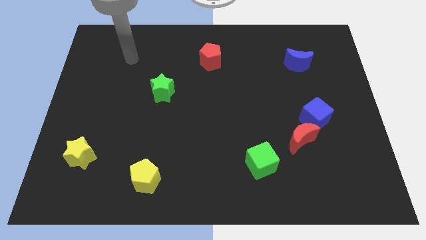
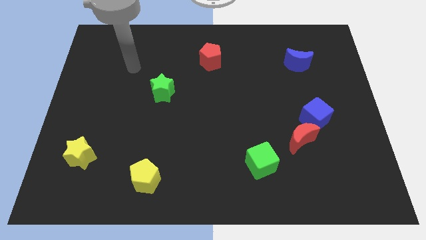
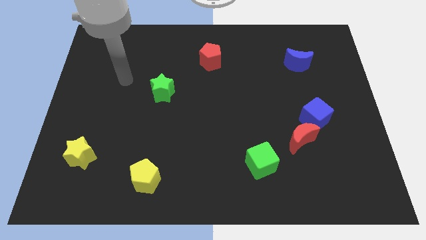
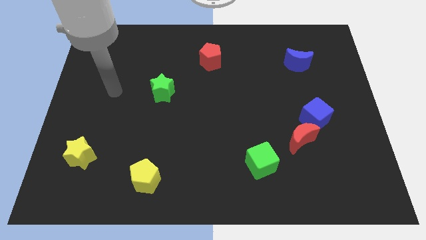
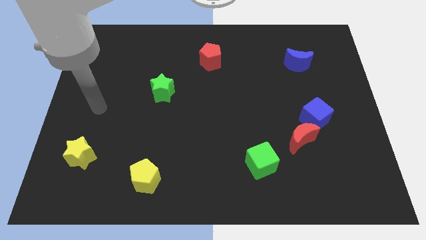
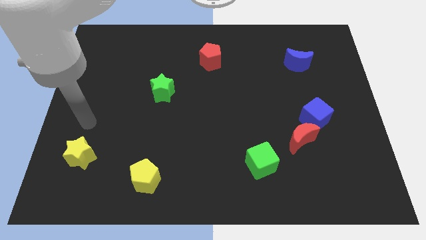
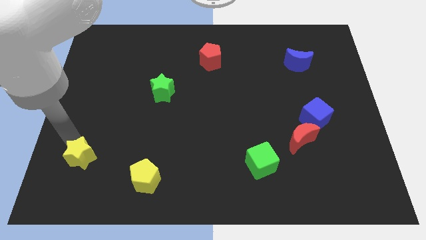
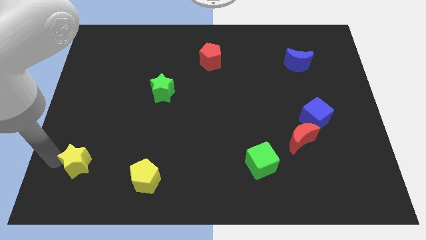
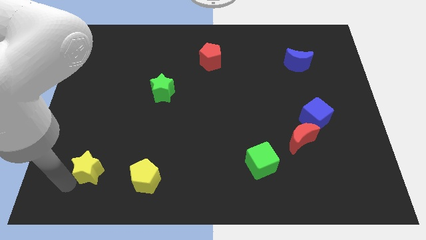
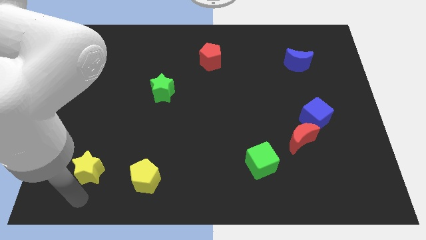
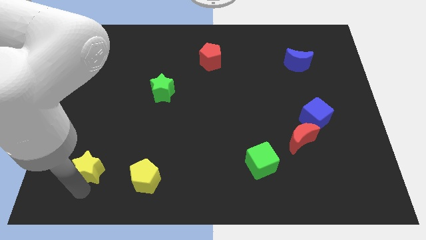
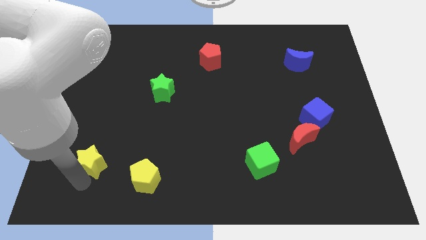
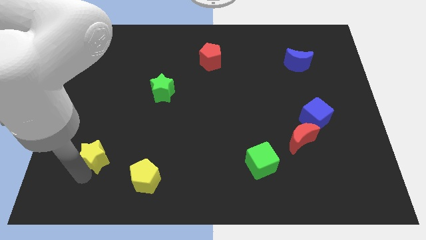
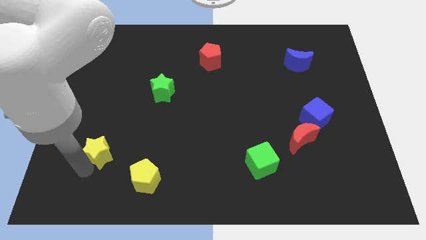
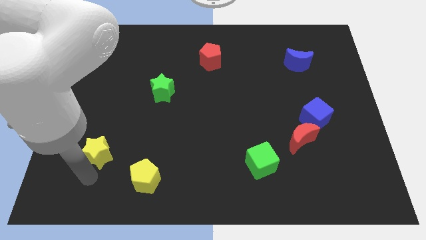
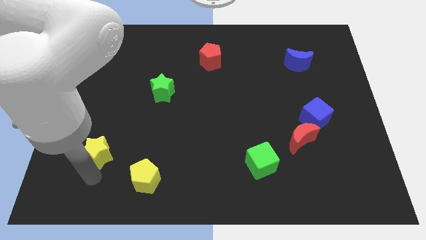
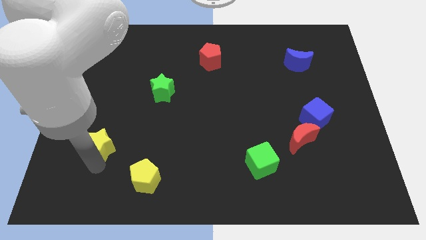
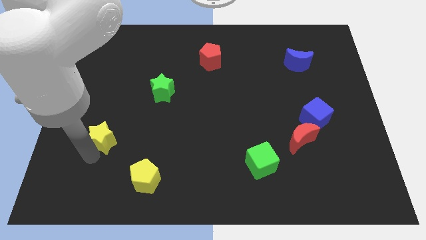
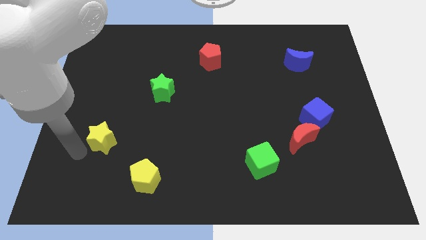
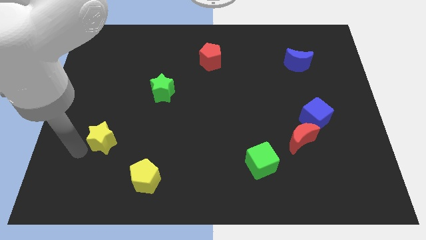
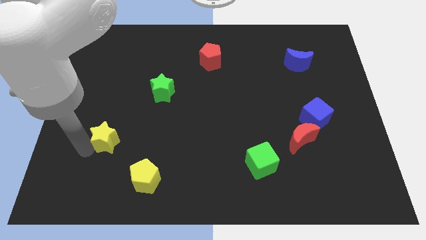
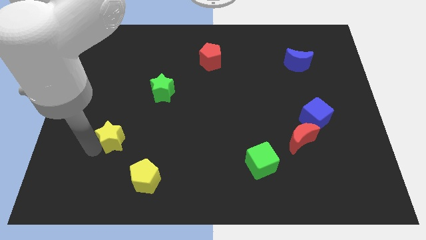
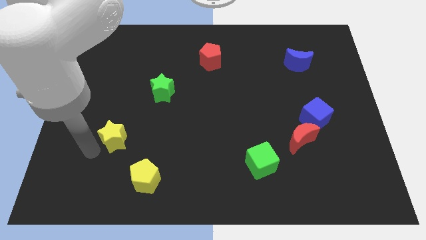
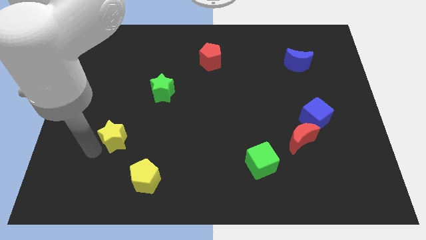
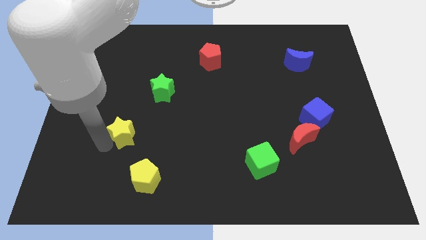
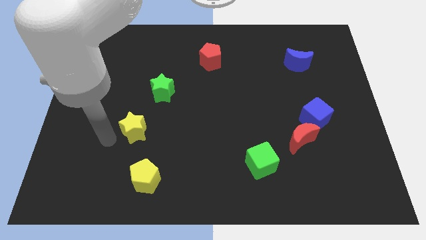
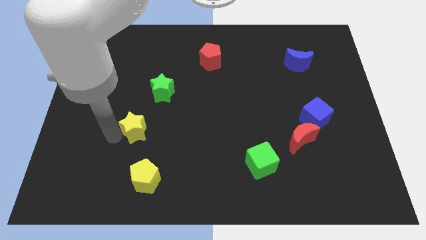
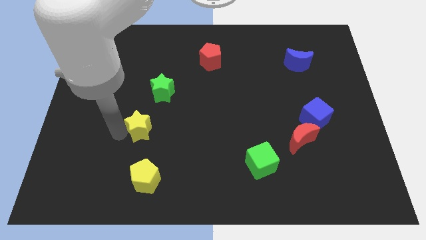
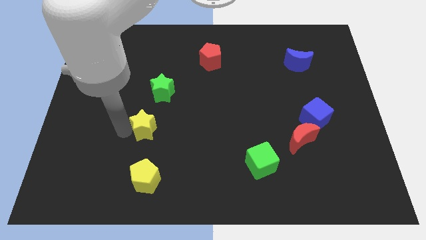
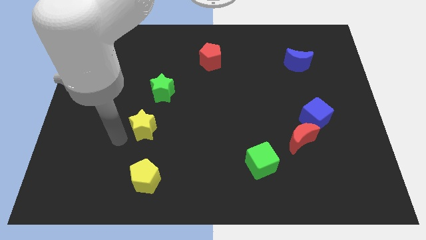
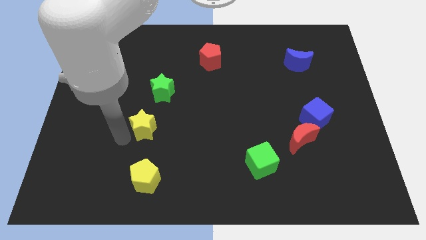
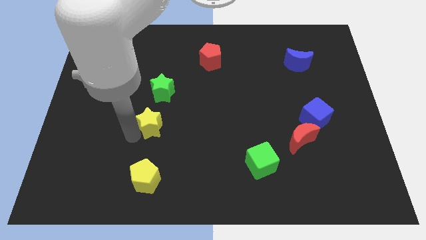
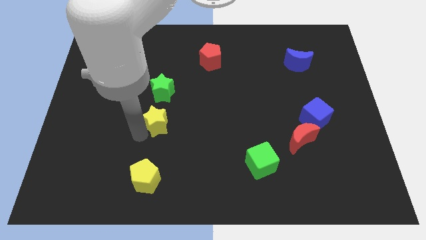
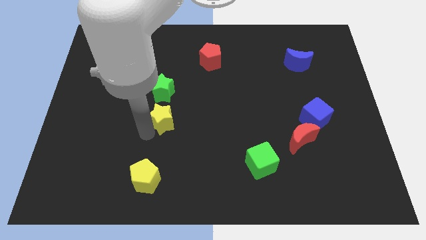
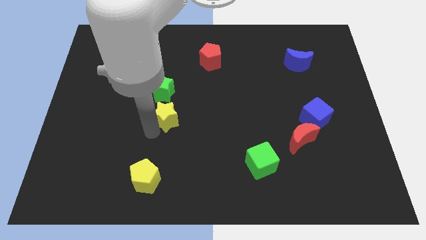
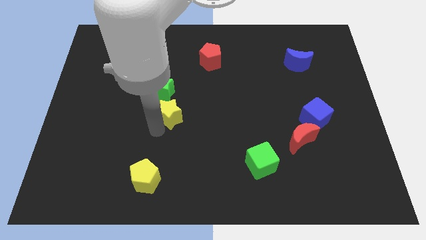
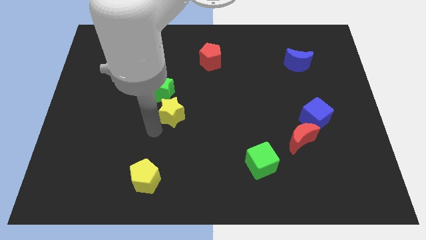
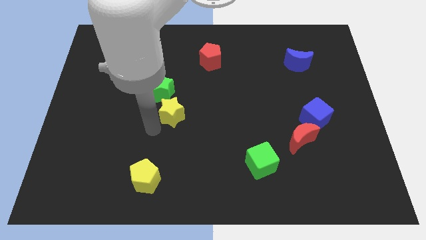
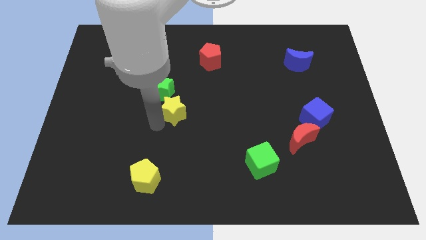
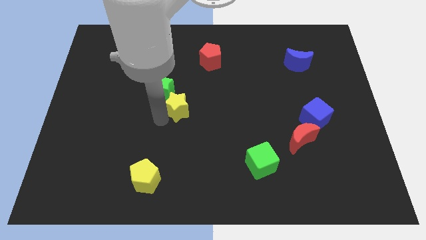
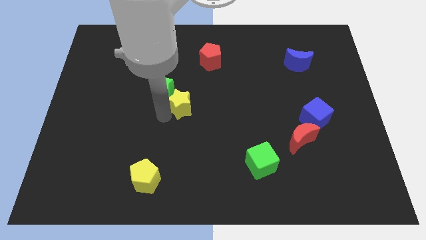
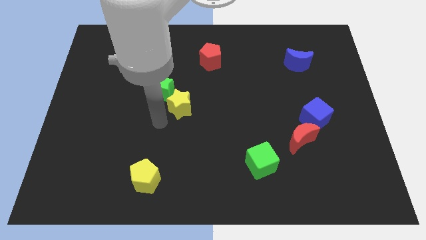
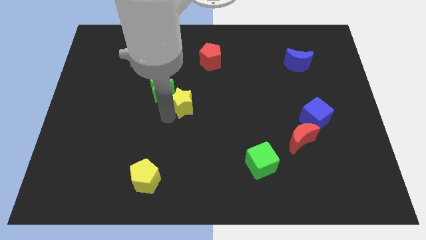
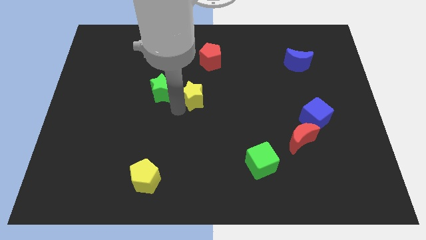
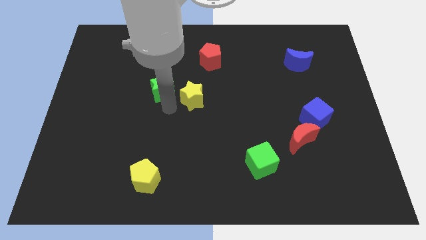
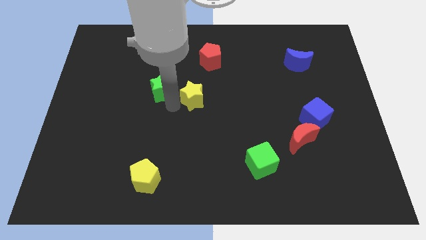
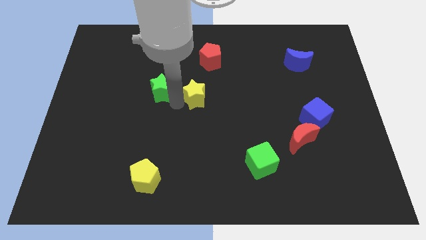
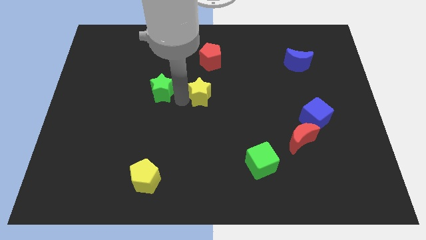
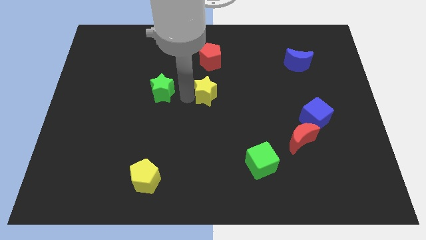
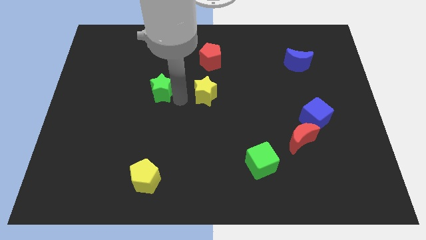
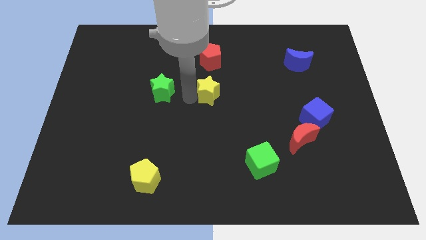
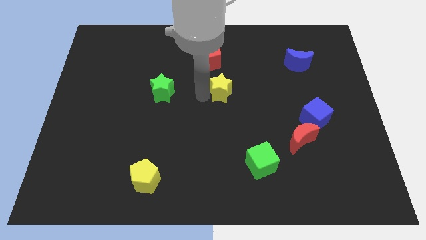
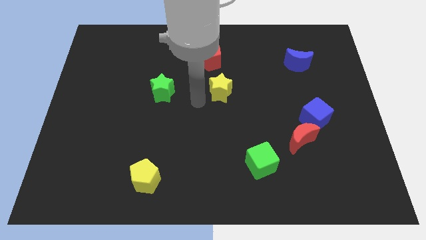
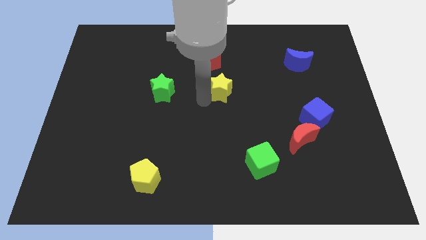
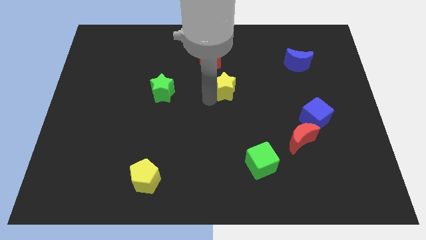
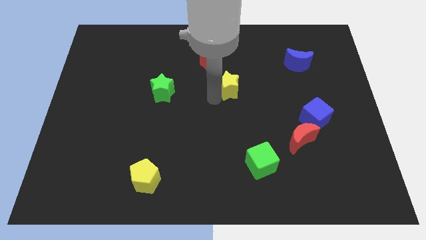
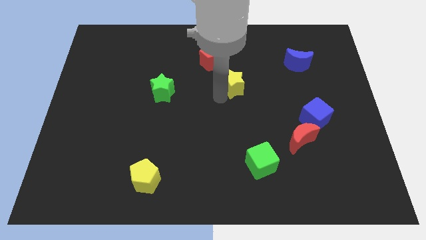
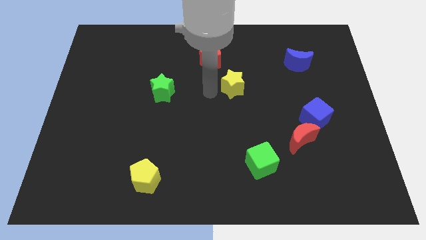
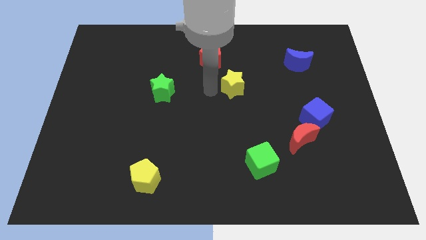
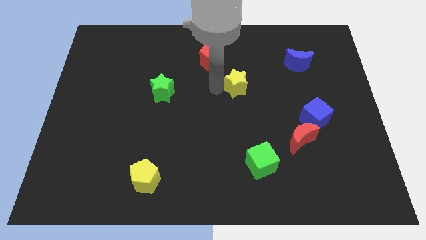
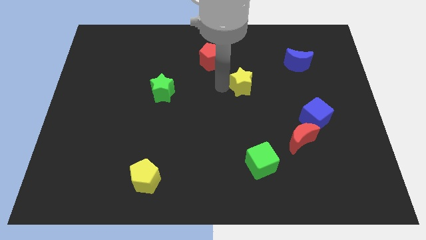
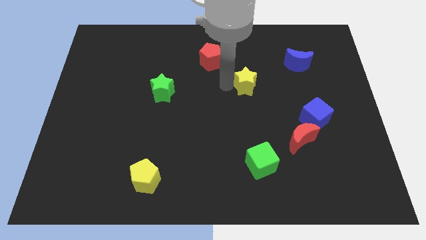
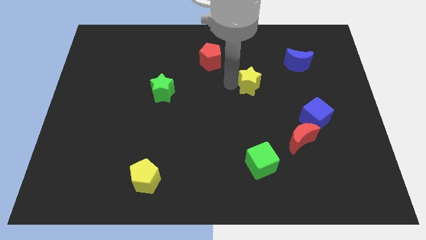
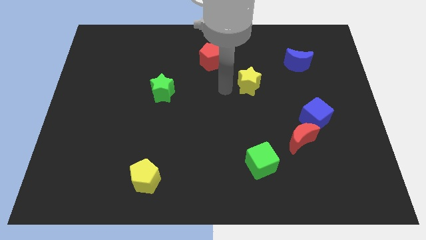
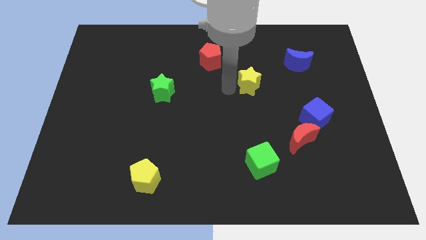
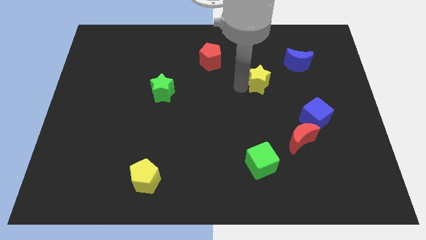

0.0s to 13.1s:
move the yellow star diagonally down and to the left of the blue moon
